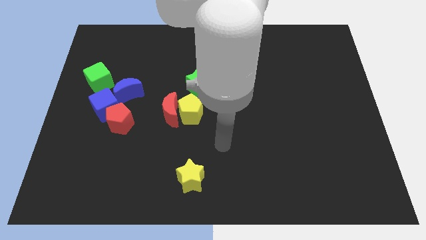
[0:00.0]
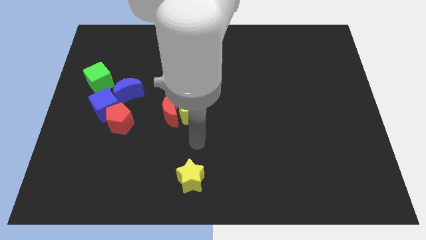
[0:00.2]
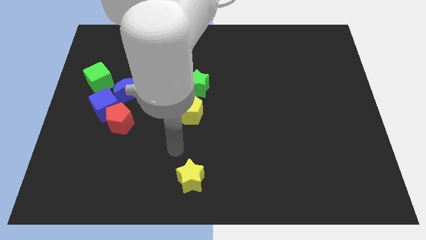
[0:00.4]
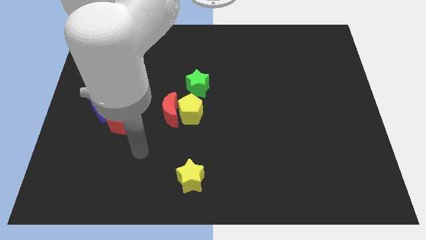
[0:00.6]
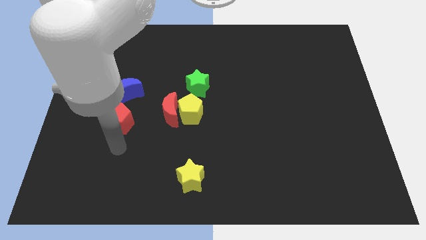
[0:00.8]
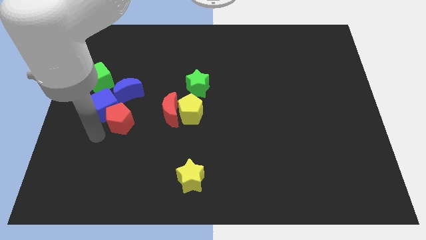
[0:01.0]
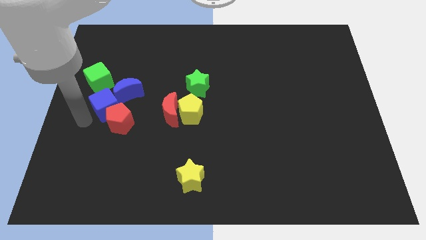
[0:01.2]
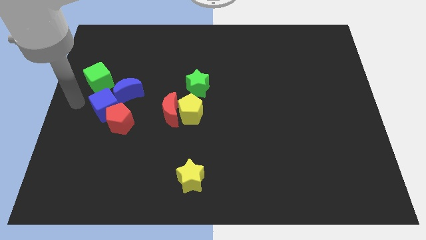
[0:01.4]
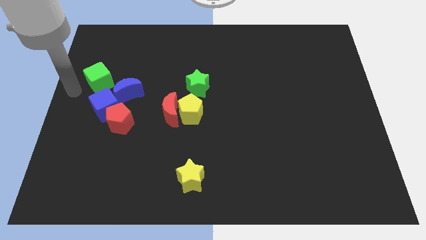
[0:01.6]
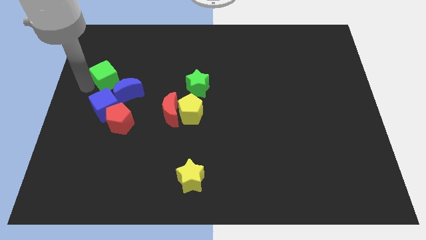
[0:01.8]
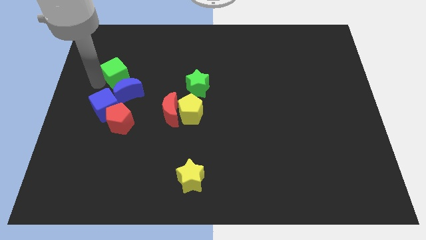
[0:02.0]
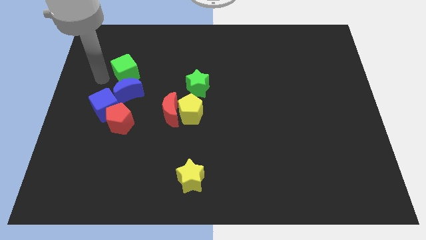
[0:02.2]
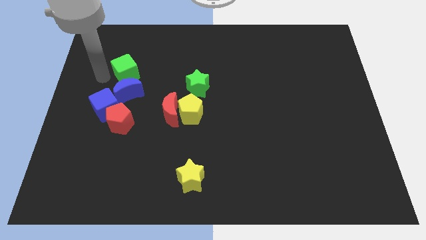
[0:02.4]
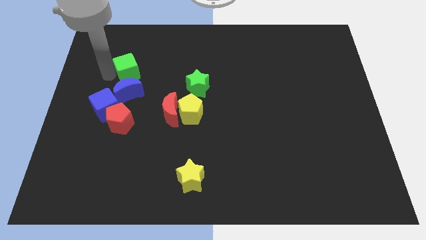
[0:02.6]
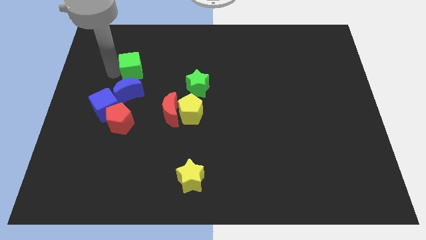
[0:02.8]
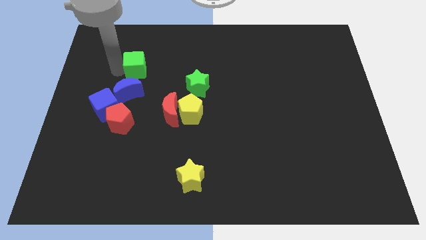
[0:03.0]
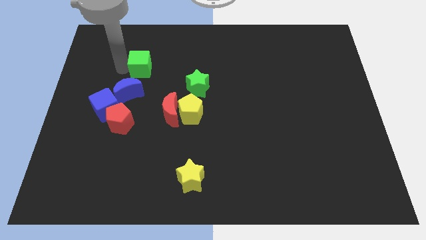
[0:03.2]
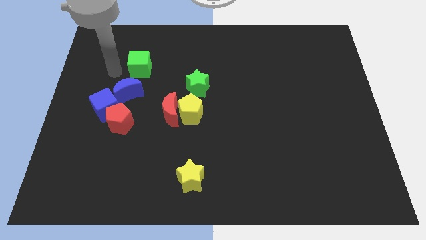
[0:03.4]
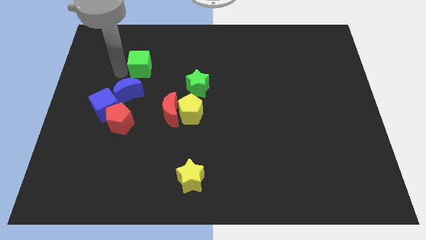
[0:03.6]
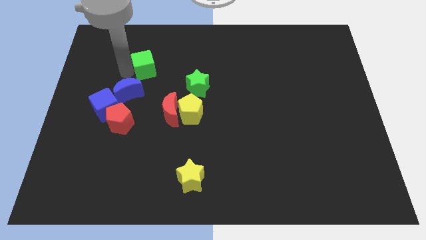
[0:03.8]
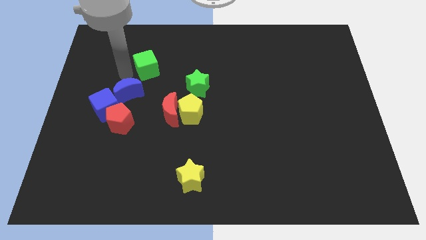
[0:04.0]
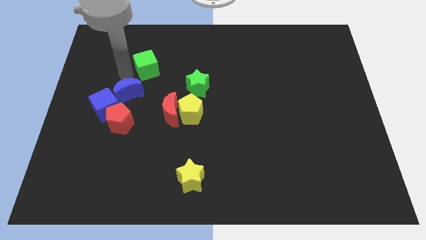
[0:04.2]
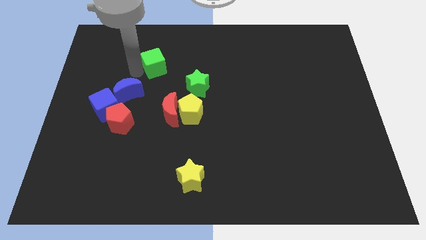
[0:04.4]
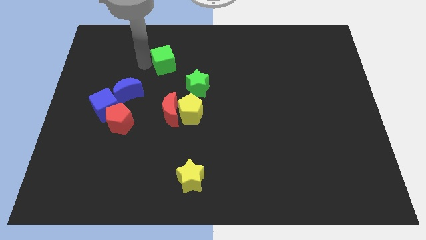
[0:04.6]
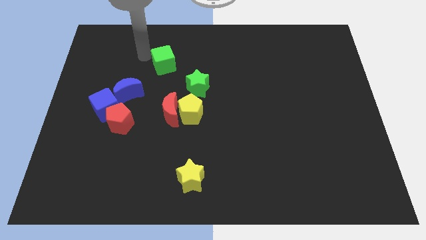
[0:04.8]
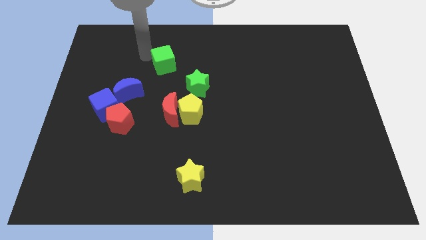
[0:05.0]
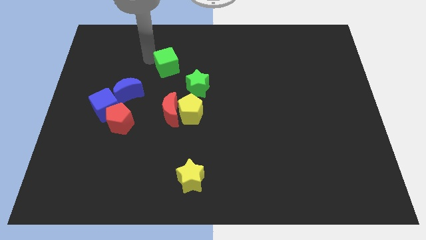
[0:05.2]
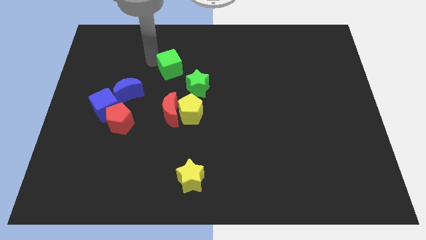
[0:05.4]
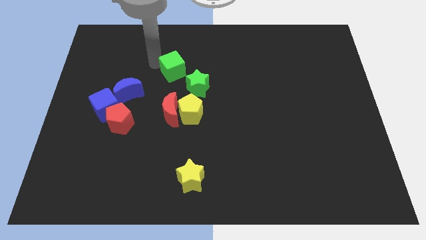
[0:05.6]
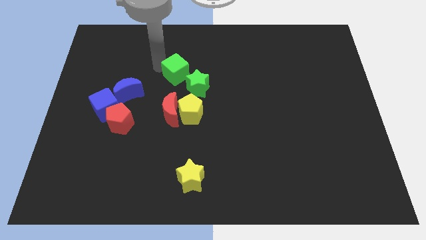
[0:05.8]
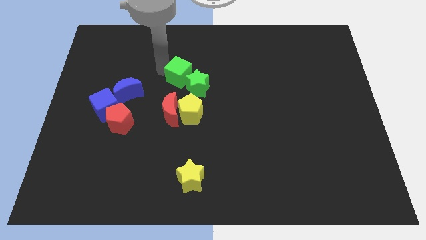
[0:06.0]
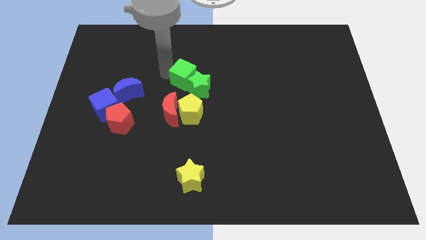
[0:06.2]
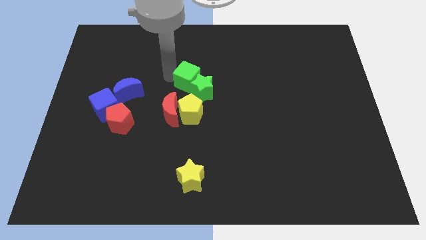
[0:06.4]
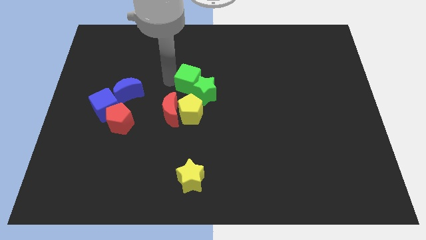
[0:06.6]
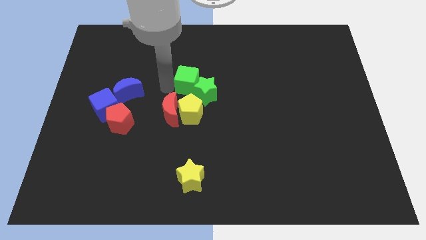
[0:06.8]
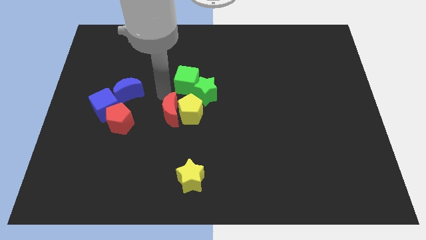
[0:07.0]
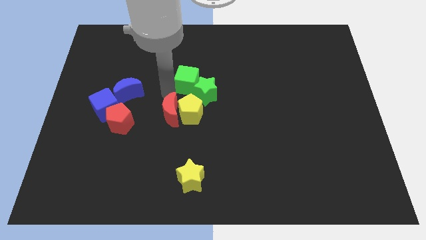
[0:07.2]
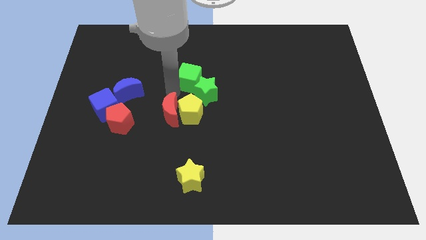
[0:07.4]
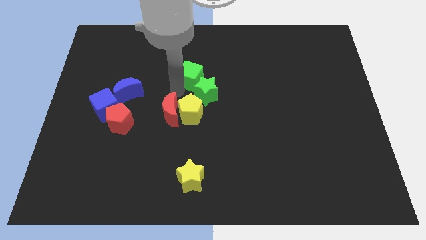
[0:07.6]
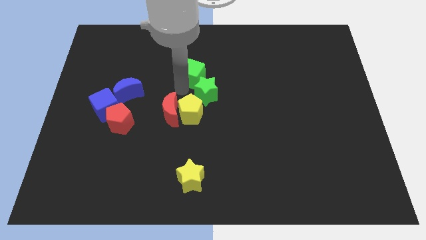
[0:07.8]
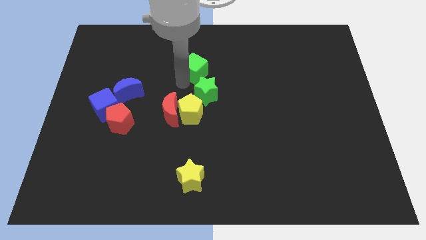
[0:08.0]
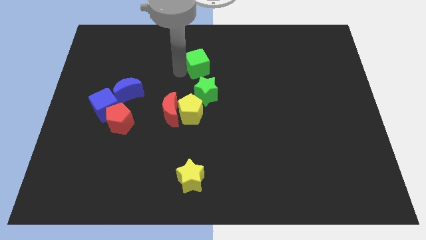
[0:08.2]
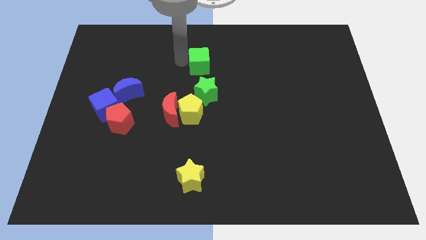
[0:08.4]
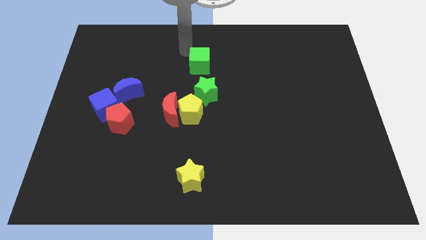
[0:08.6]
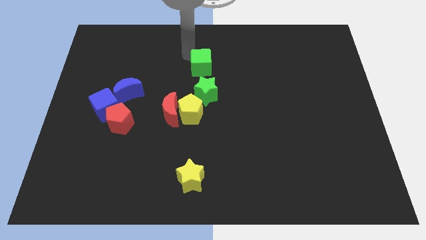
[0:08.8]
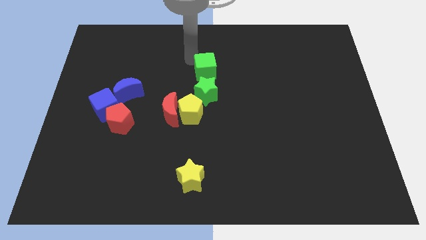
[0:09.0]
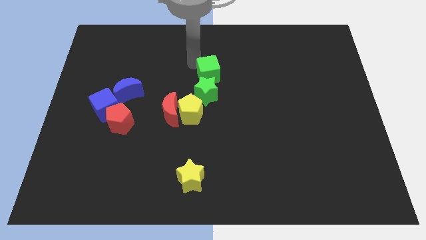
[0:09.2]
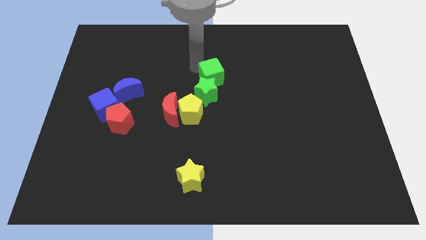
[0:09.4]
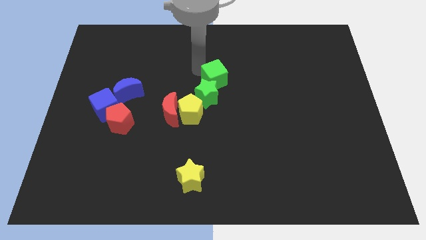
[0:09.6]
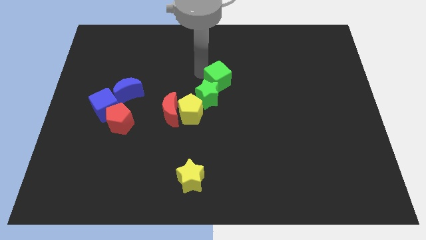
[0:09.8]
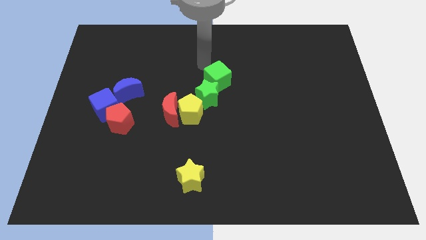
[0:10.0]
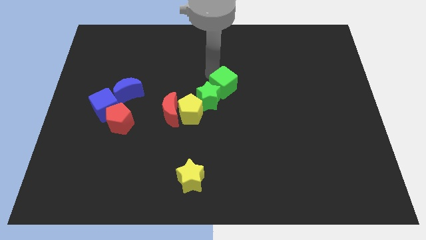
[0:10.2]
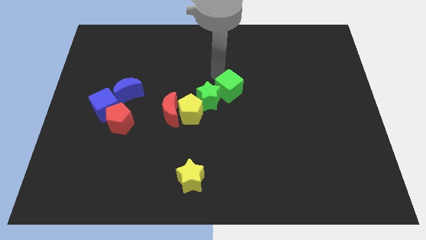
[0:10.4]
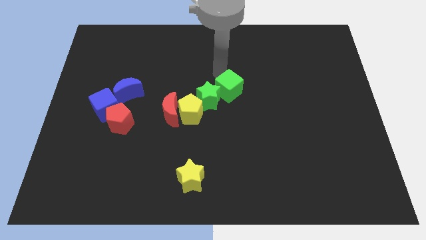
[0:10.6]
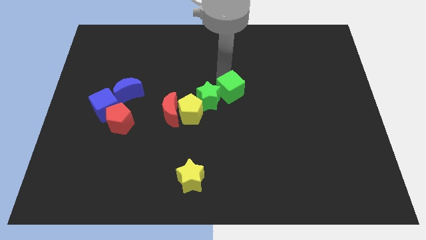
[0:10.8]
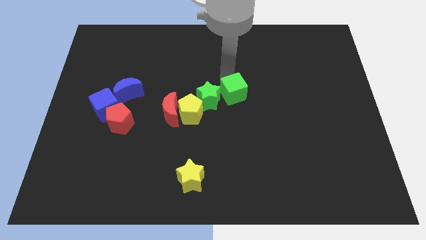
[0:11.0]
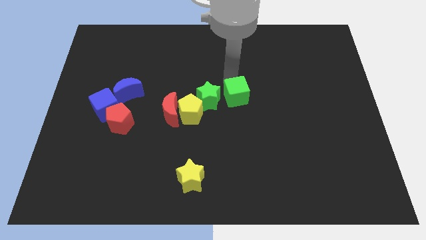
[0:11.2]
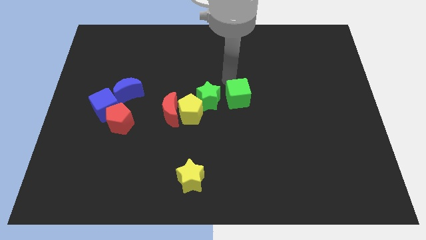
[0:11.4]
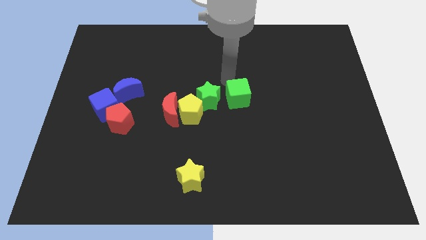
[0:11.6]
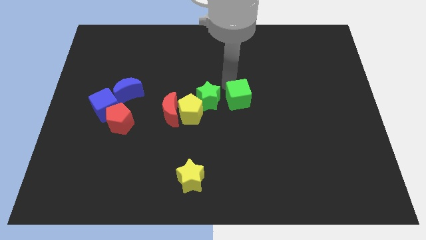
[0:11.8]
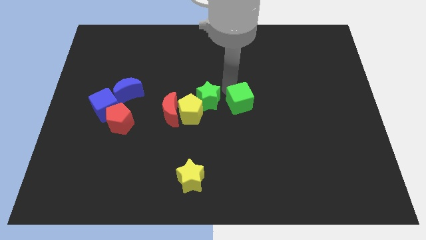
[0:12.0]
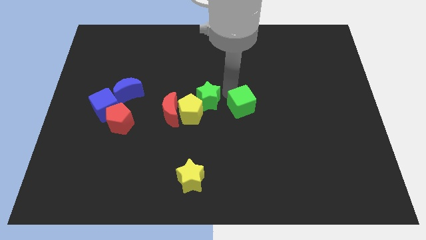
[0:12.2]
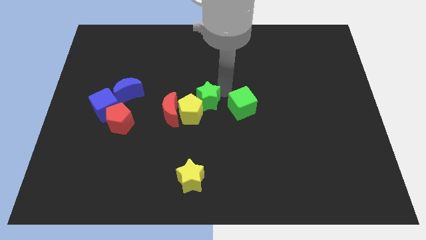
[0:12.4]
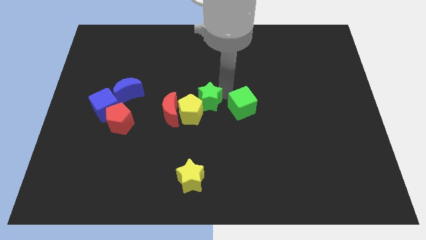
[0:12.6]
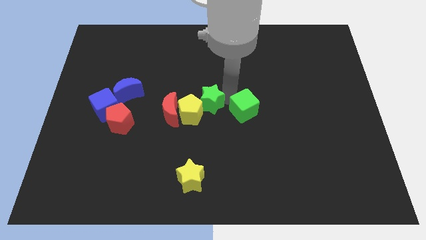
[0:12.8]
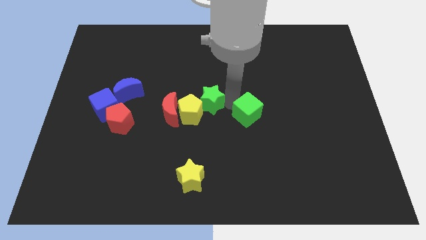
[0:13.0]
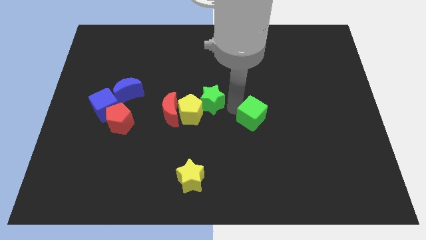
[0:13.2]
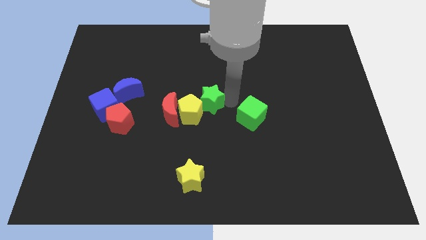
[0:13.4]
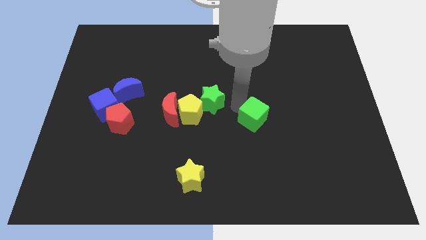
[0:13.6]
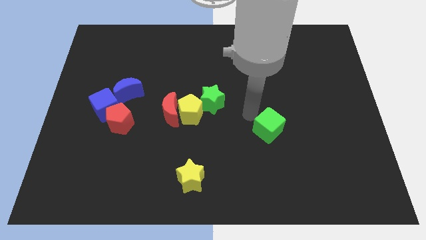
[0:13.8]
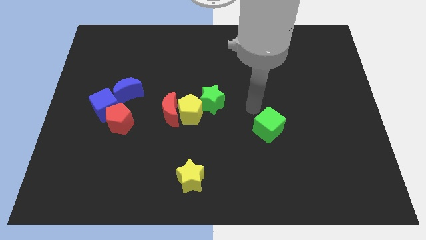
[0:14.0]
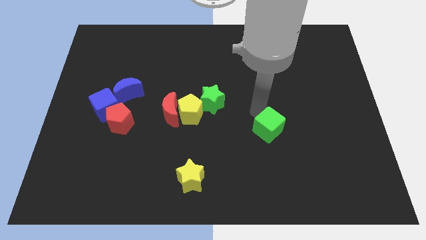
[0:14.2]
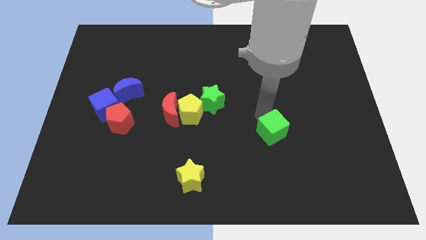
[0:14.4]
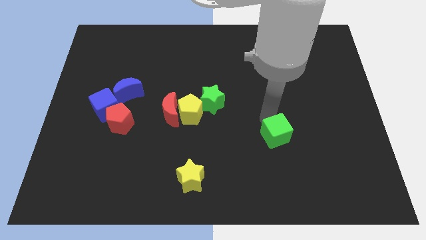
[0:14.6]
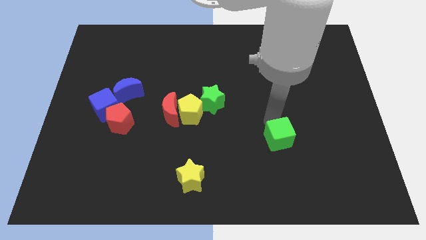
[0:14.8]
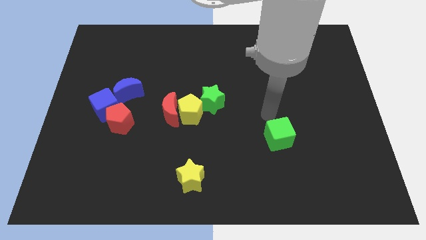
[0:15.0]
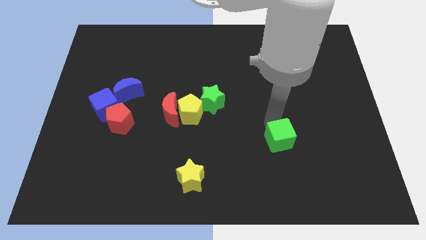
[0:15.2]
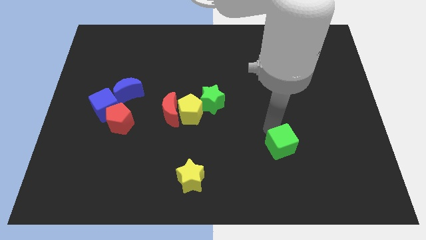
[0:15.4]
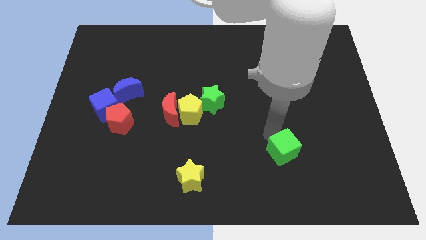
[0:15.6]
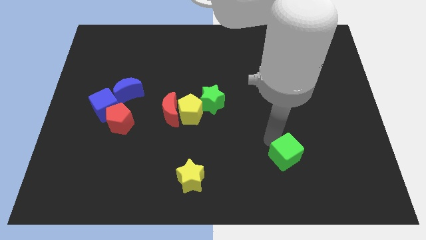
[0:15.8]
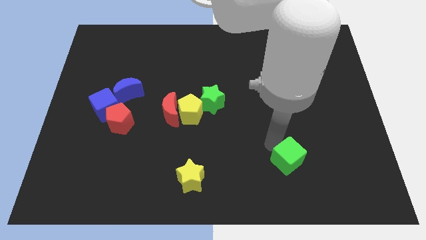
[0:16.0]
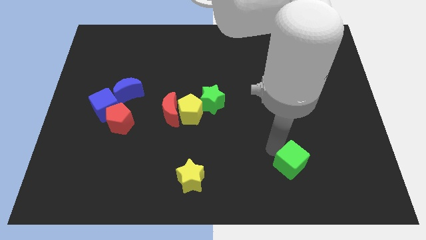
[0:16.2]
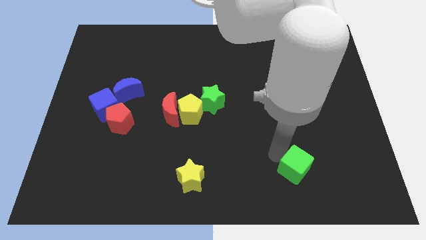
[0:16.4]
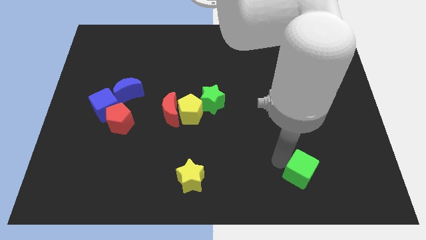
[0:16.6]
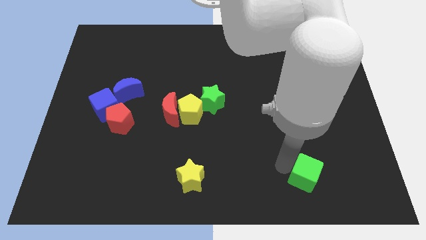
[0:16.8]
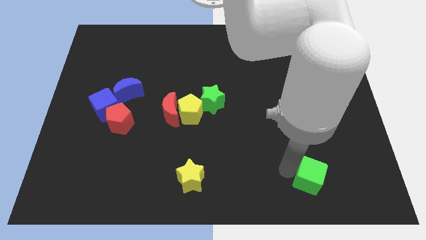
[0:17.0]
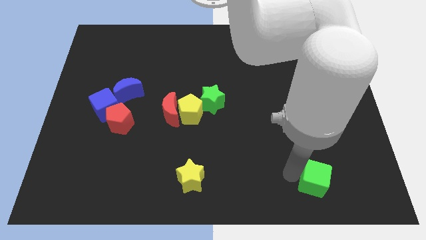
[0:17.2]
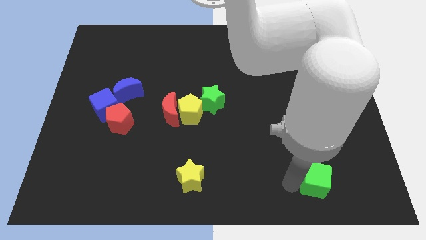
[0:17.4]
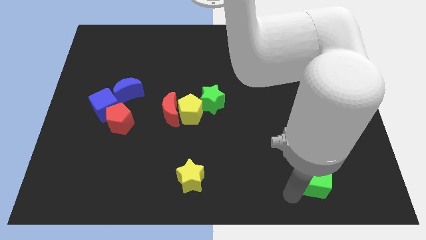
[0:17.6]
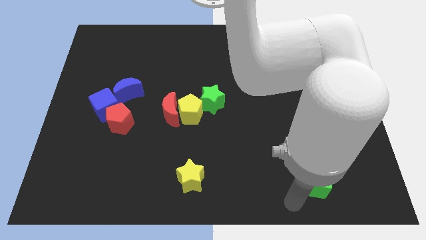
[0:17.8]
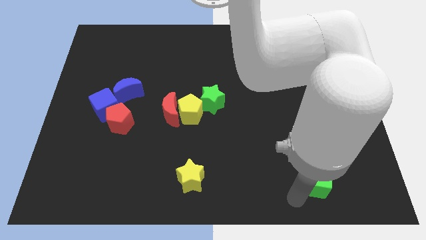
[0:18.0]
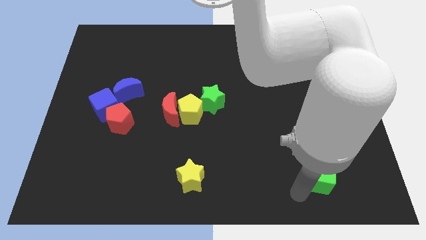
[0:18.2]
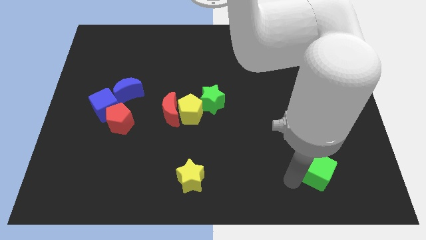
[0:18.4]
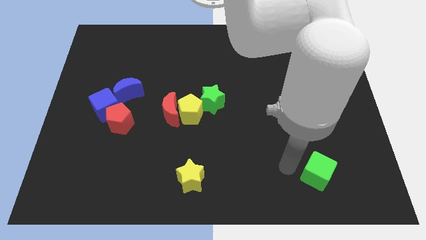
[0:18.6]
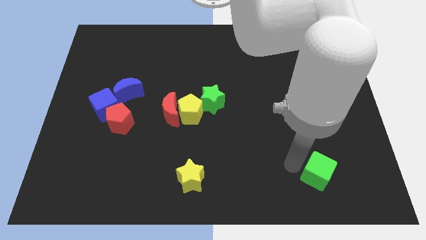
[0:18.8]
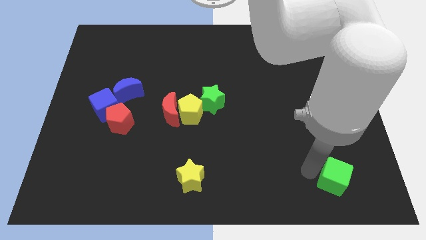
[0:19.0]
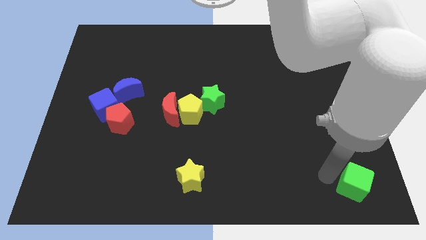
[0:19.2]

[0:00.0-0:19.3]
move the green cube to the bottom right corner
